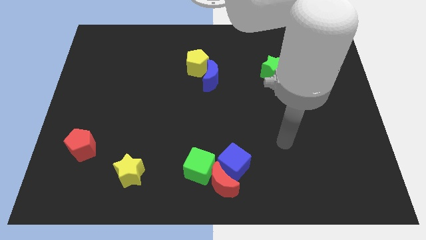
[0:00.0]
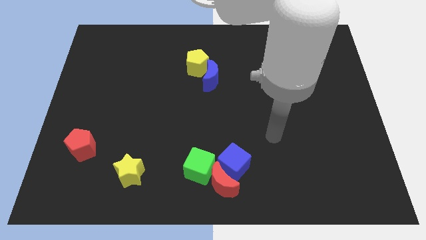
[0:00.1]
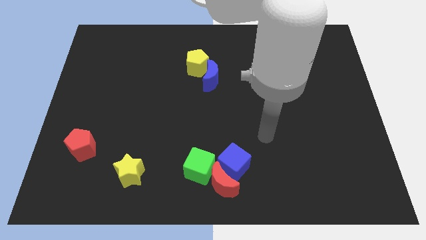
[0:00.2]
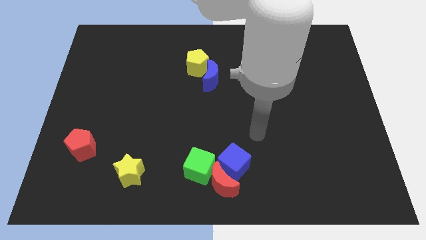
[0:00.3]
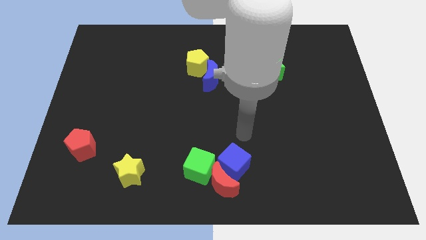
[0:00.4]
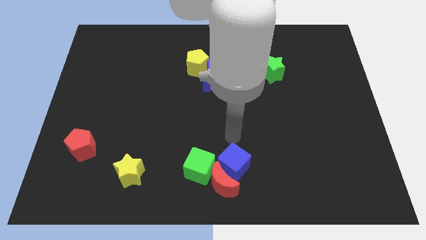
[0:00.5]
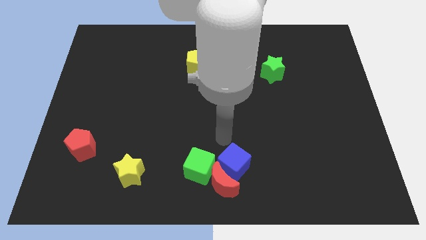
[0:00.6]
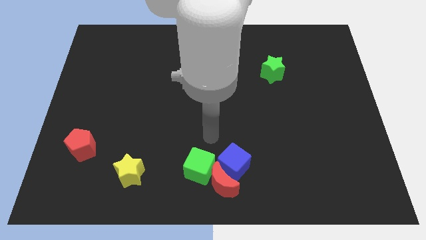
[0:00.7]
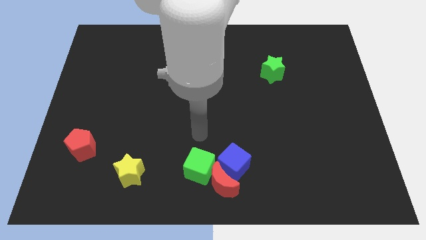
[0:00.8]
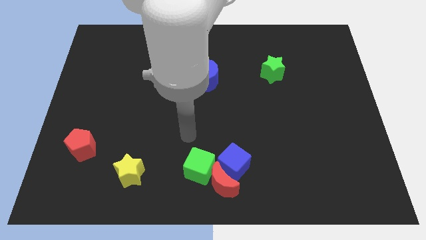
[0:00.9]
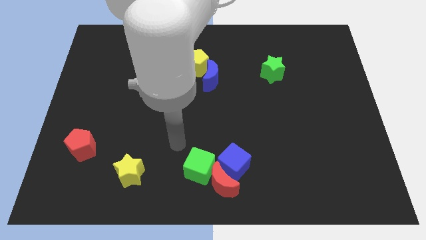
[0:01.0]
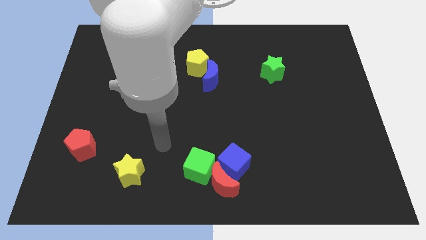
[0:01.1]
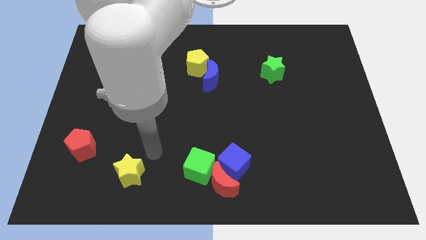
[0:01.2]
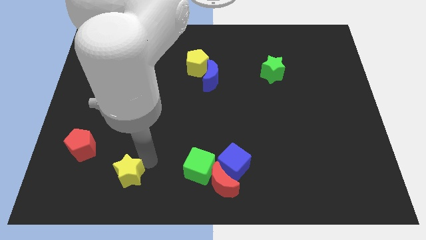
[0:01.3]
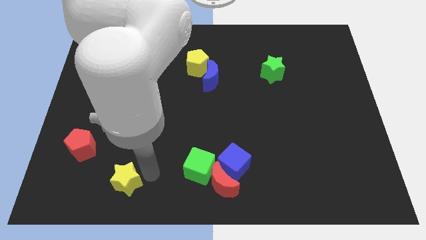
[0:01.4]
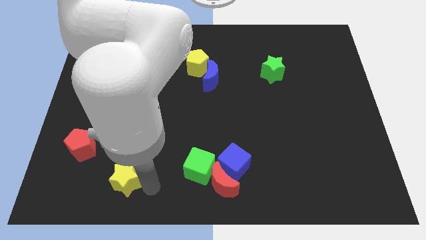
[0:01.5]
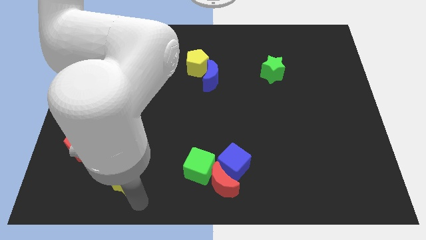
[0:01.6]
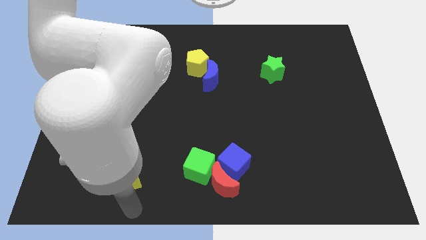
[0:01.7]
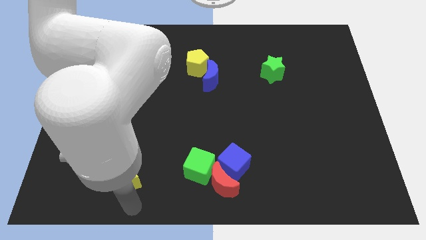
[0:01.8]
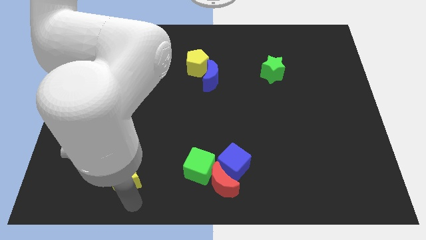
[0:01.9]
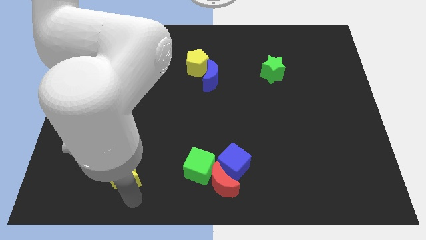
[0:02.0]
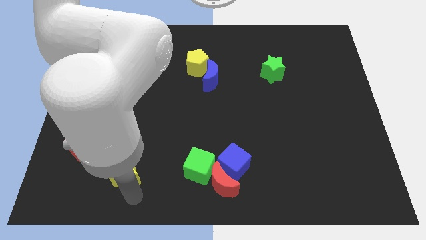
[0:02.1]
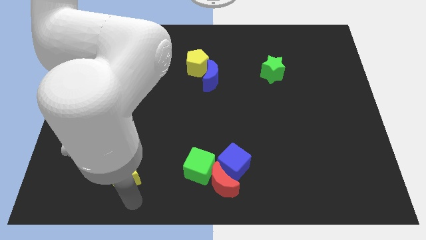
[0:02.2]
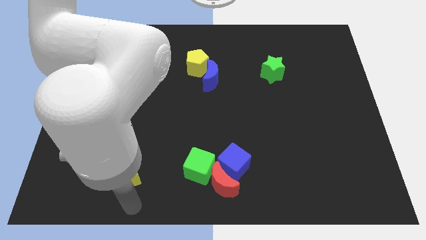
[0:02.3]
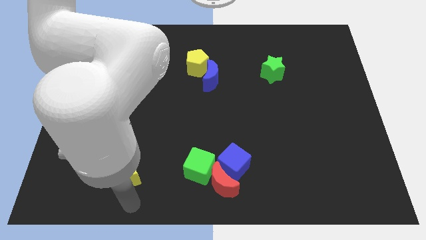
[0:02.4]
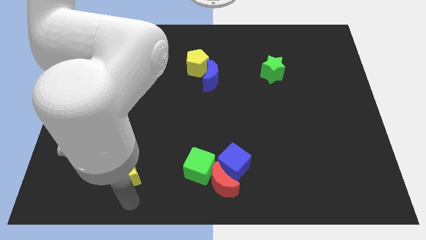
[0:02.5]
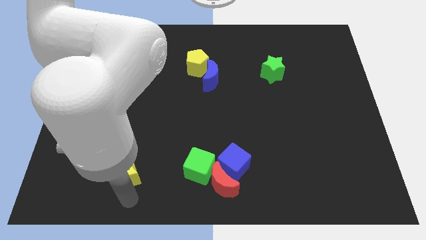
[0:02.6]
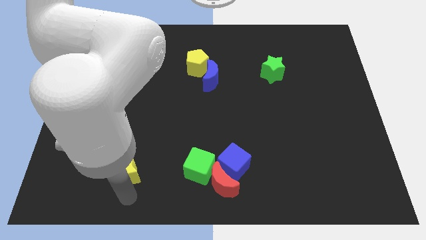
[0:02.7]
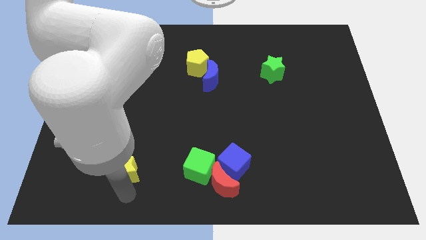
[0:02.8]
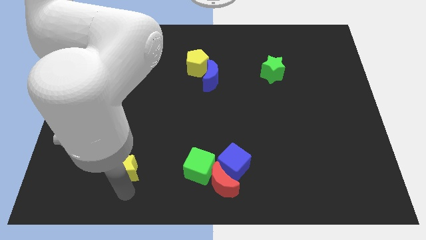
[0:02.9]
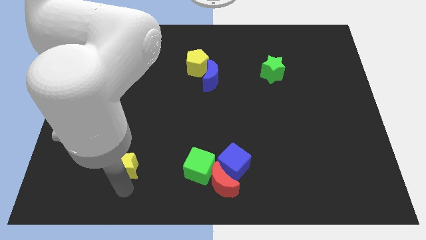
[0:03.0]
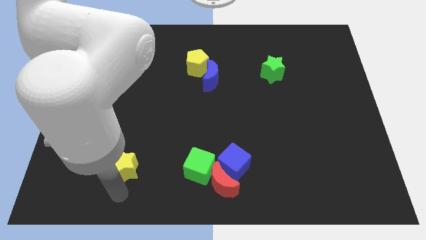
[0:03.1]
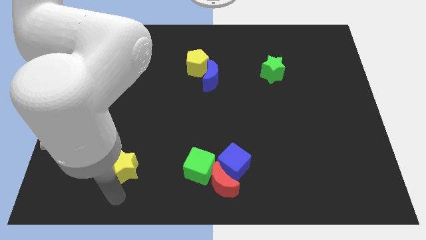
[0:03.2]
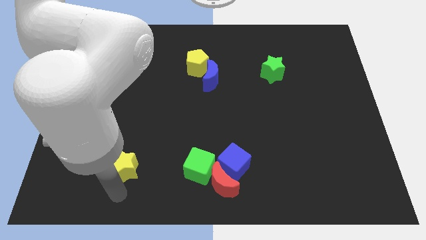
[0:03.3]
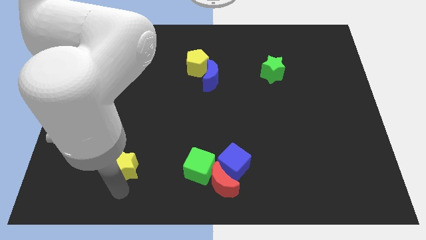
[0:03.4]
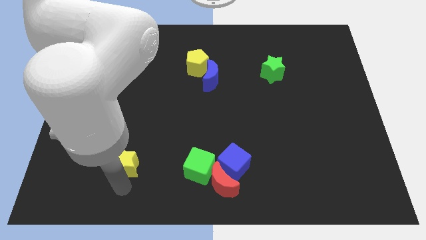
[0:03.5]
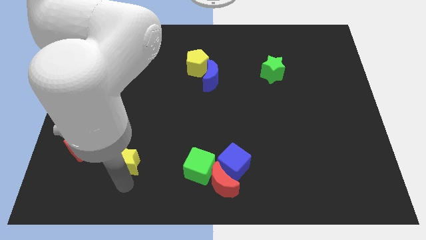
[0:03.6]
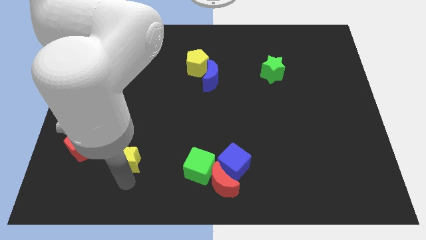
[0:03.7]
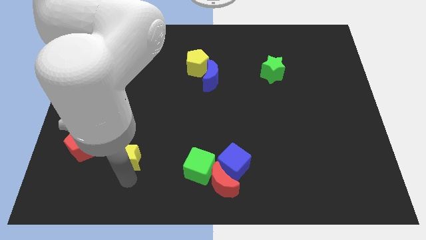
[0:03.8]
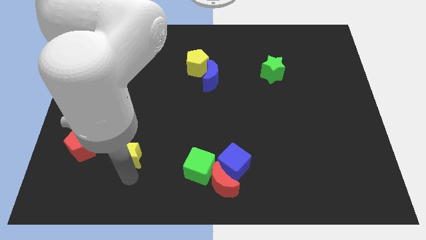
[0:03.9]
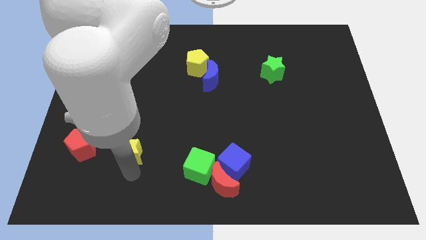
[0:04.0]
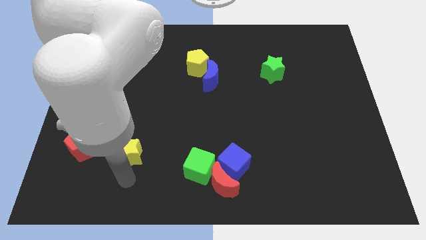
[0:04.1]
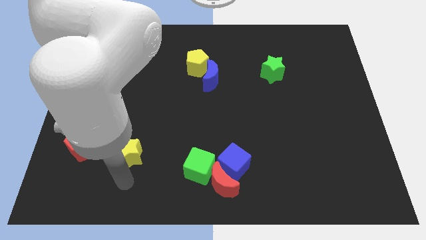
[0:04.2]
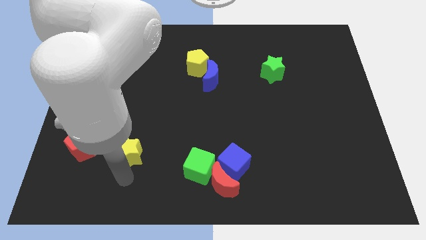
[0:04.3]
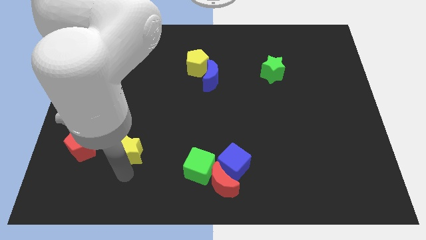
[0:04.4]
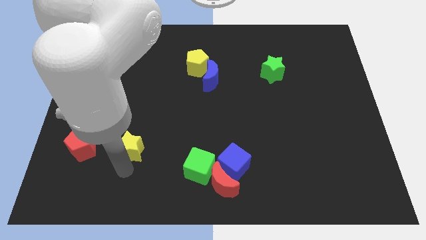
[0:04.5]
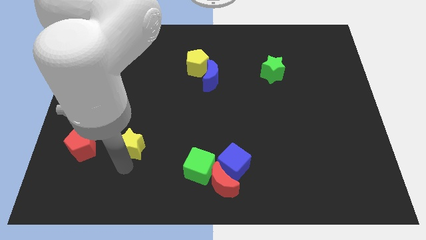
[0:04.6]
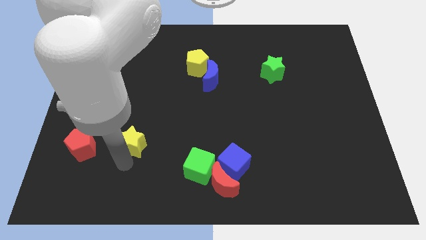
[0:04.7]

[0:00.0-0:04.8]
slide the yellow star a little bit upwards

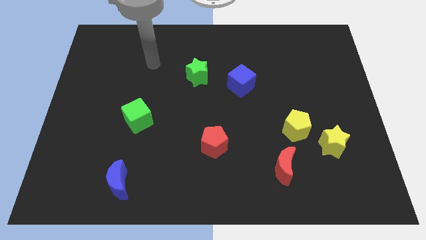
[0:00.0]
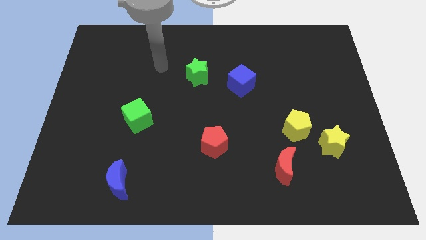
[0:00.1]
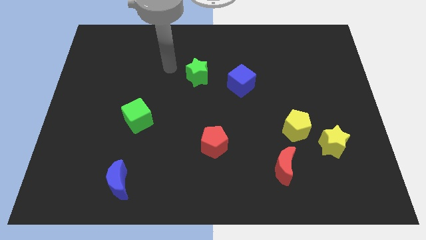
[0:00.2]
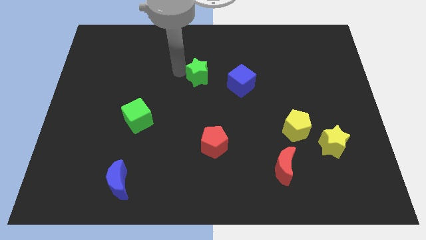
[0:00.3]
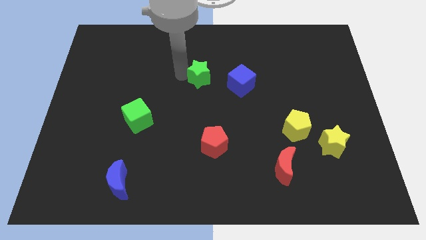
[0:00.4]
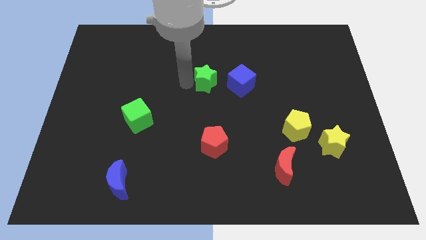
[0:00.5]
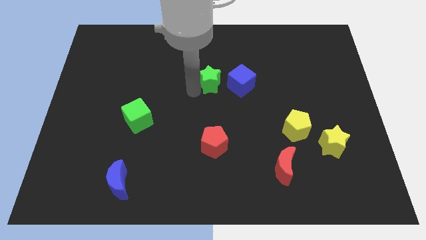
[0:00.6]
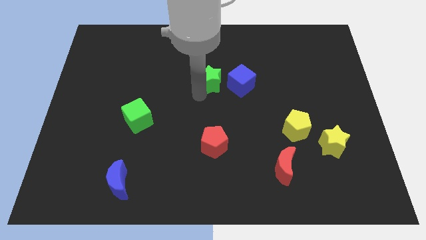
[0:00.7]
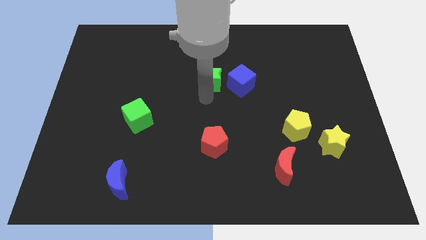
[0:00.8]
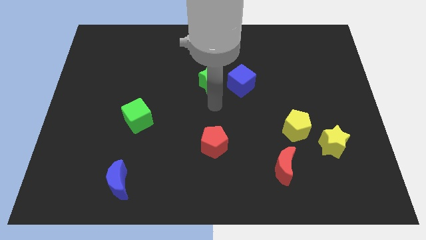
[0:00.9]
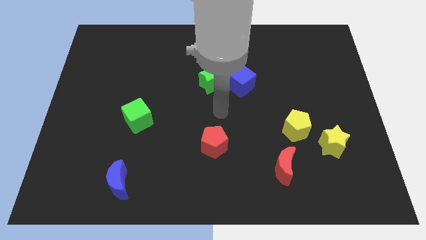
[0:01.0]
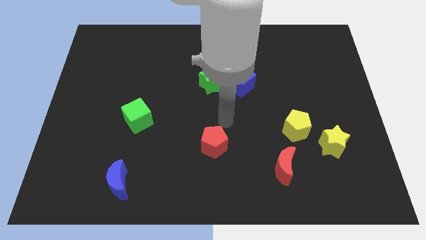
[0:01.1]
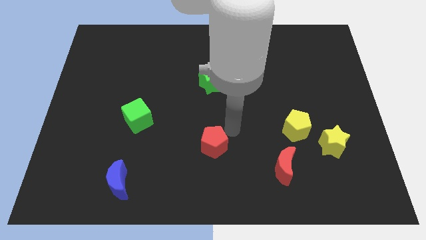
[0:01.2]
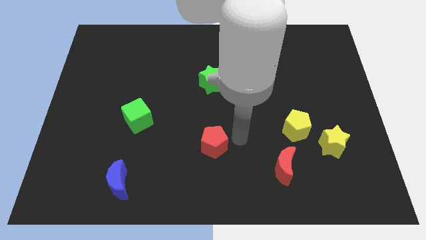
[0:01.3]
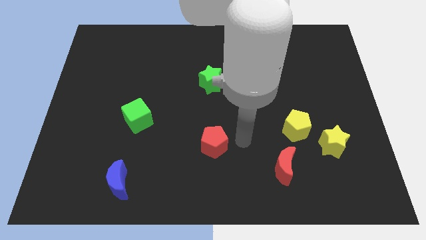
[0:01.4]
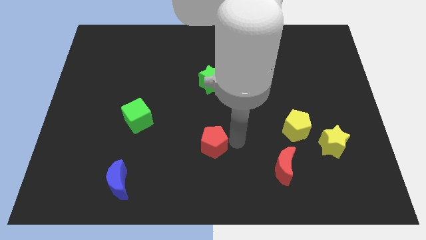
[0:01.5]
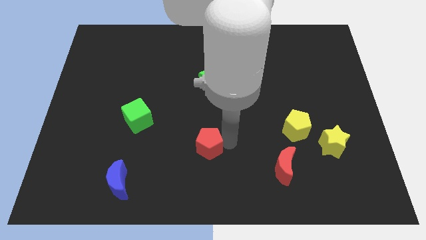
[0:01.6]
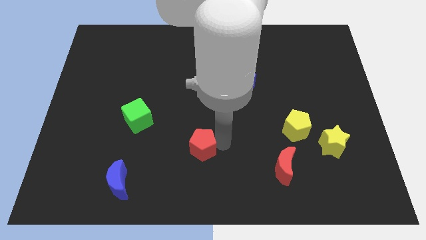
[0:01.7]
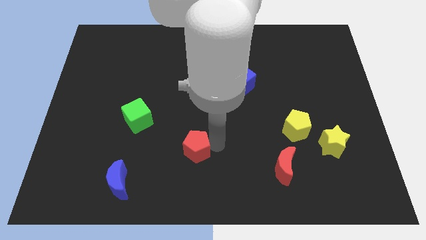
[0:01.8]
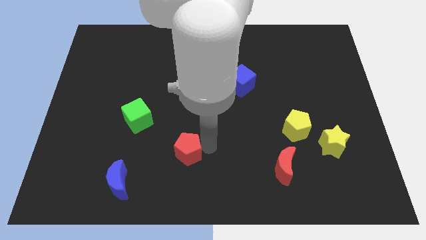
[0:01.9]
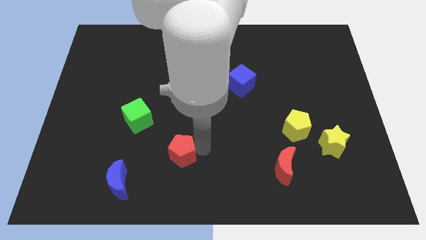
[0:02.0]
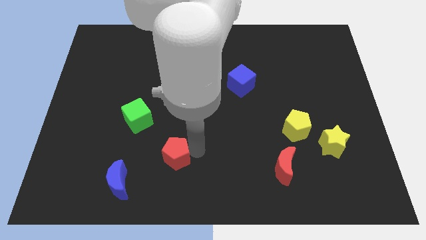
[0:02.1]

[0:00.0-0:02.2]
slightly push the red pentagon left

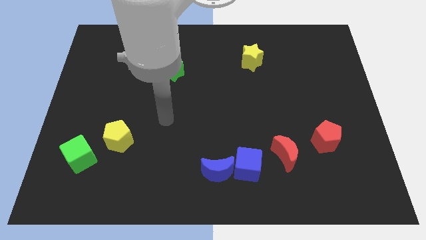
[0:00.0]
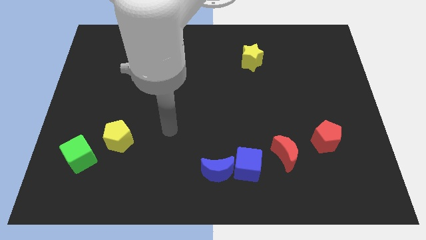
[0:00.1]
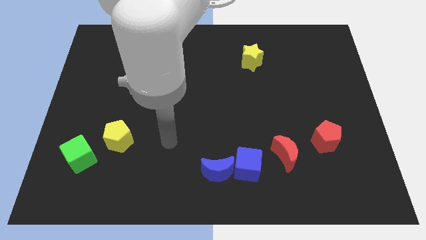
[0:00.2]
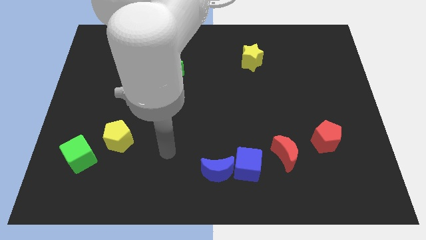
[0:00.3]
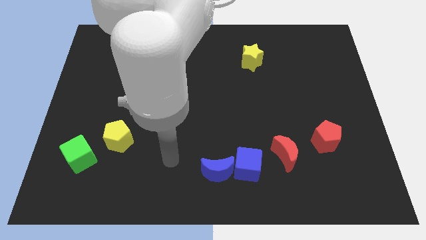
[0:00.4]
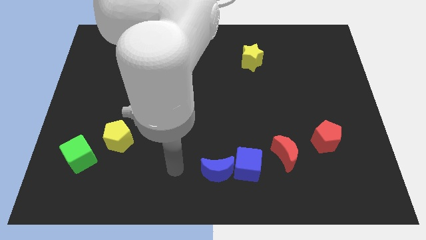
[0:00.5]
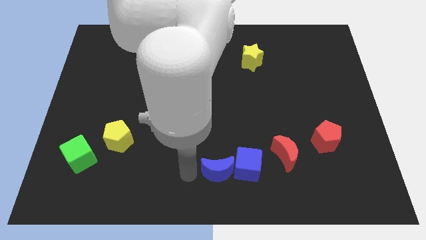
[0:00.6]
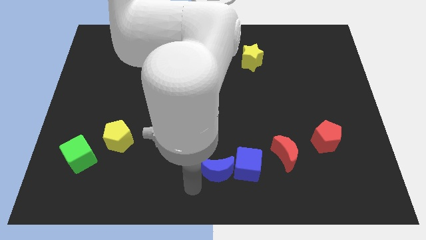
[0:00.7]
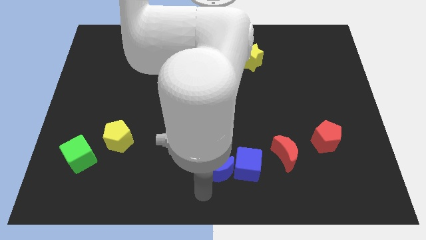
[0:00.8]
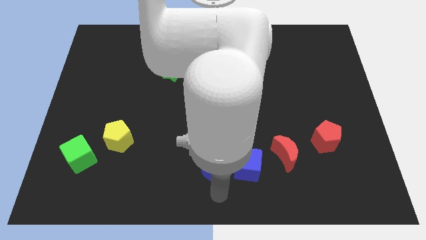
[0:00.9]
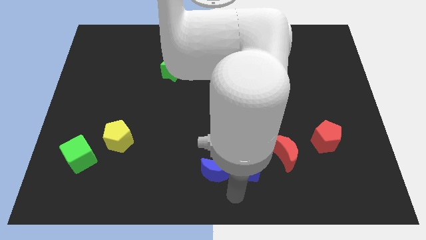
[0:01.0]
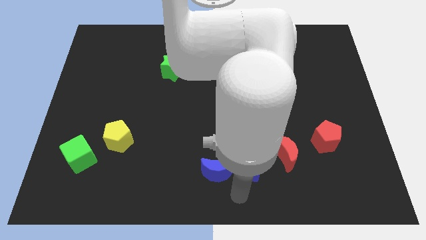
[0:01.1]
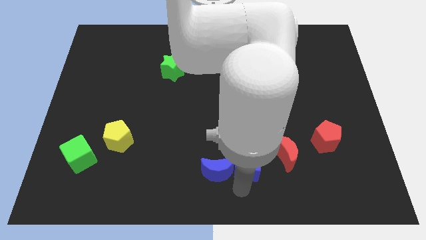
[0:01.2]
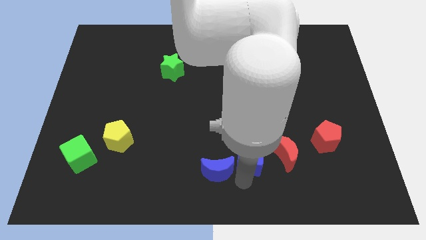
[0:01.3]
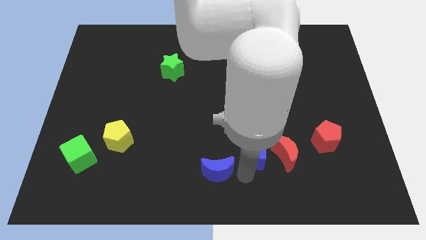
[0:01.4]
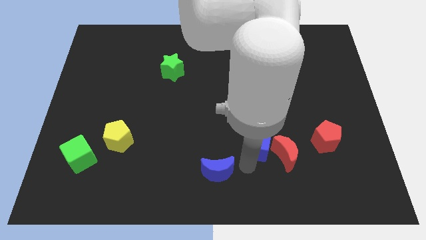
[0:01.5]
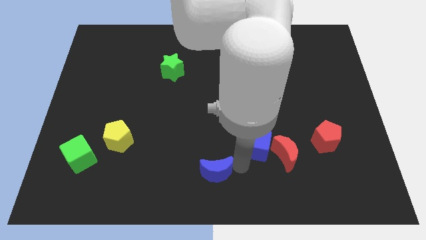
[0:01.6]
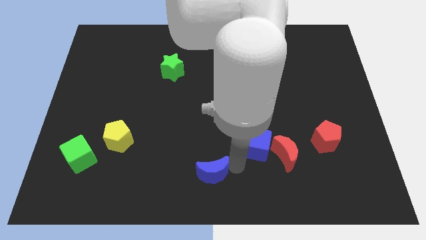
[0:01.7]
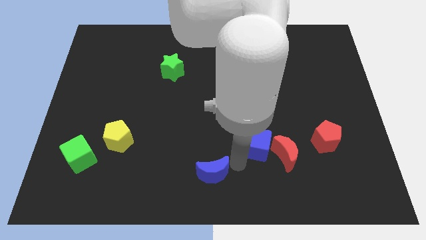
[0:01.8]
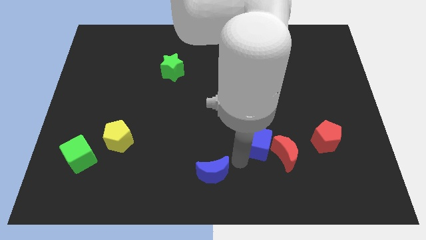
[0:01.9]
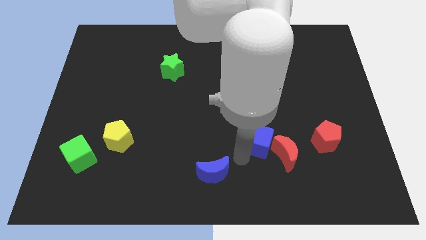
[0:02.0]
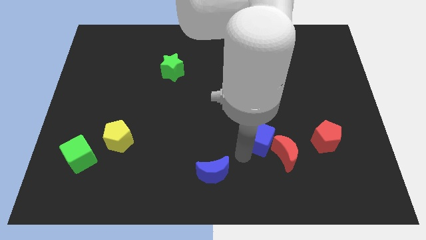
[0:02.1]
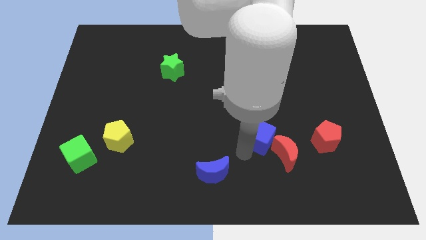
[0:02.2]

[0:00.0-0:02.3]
slightly slide the blue cube up and right
